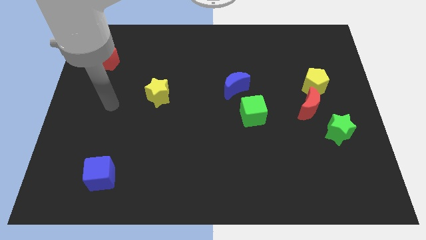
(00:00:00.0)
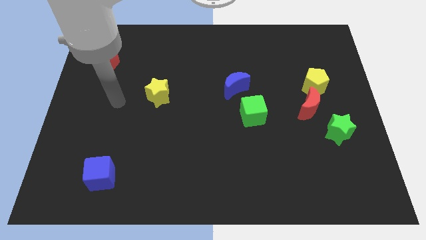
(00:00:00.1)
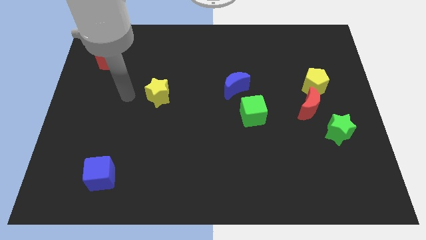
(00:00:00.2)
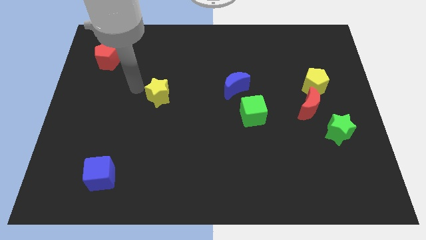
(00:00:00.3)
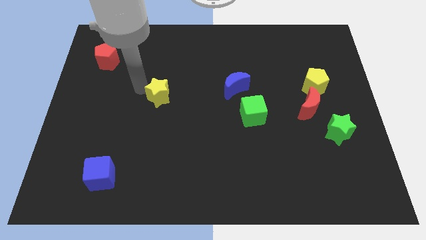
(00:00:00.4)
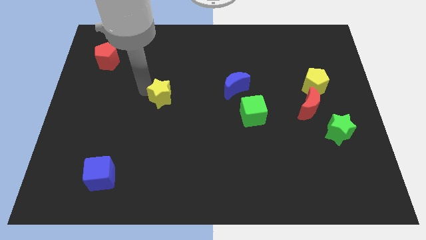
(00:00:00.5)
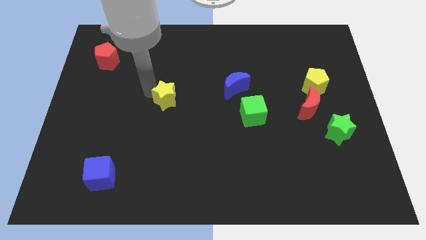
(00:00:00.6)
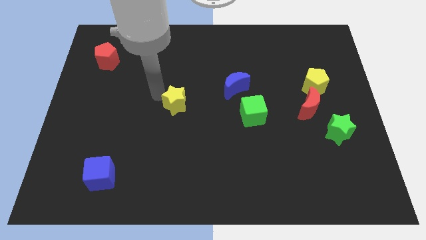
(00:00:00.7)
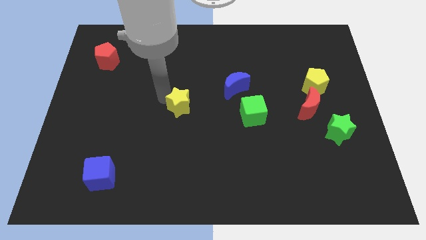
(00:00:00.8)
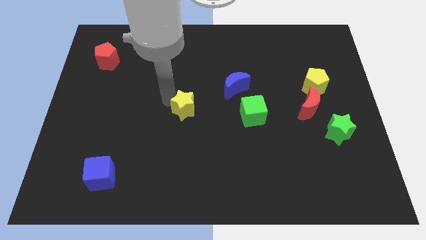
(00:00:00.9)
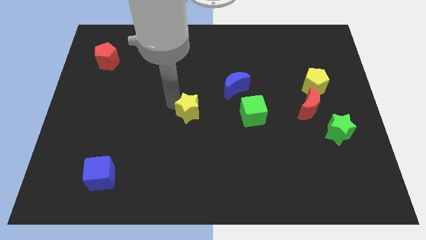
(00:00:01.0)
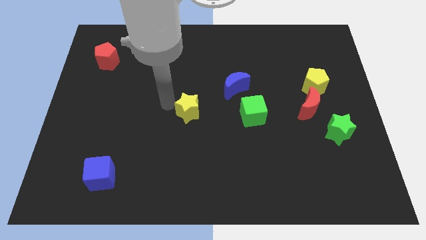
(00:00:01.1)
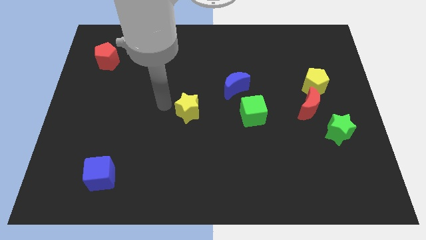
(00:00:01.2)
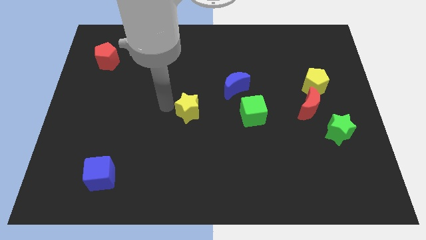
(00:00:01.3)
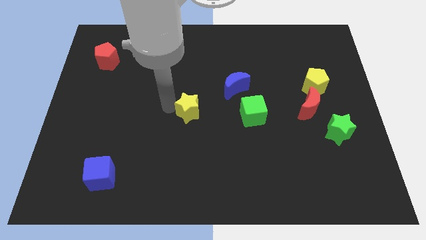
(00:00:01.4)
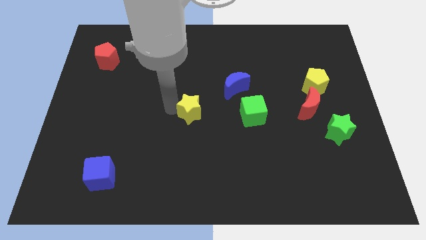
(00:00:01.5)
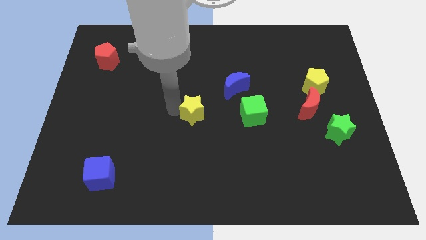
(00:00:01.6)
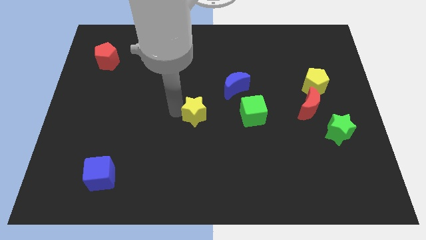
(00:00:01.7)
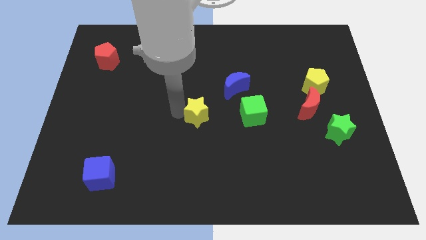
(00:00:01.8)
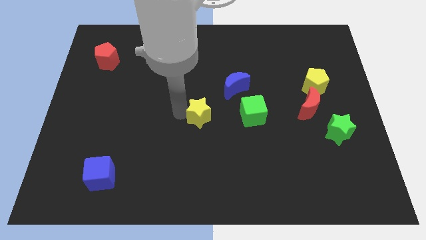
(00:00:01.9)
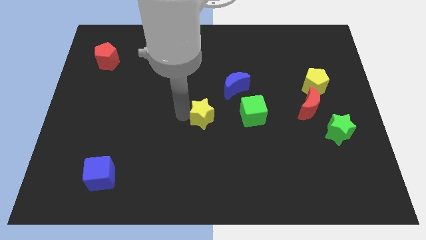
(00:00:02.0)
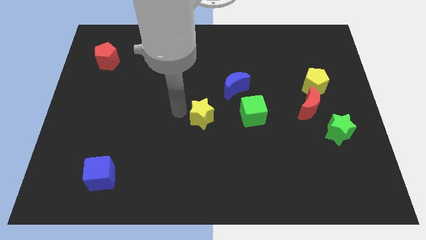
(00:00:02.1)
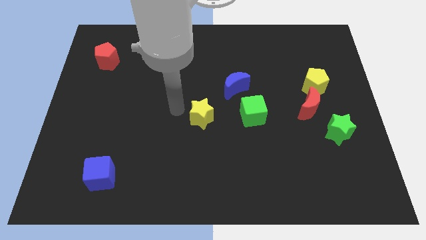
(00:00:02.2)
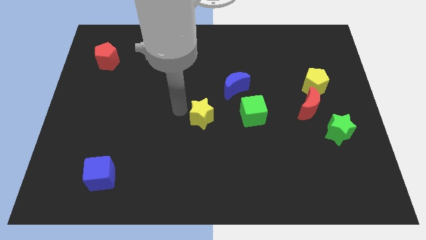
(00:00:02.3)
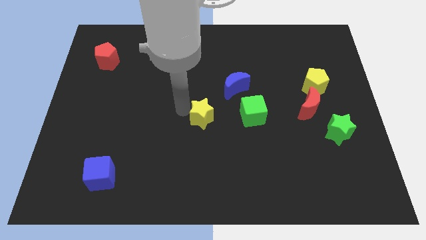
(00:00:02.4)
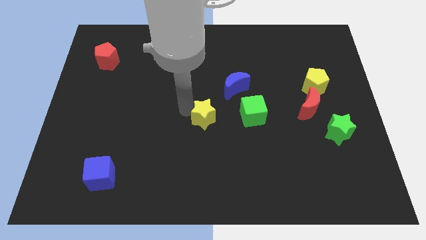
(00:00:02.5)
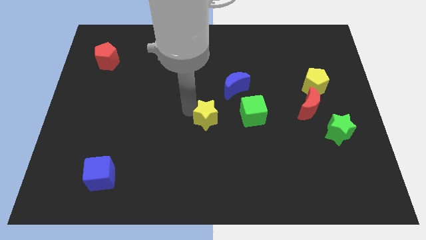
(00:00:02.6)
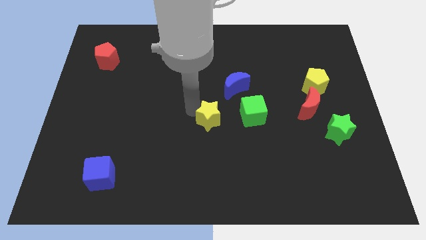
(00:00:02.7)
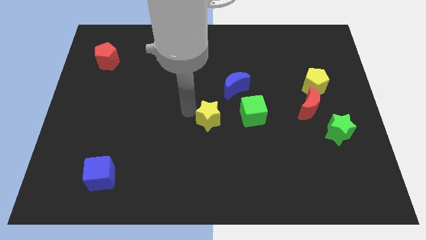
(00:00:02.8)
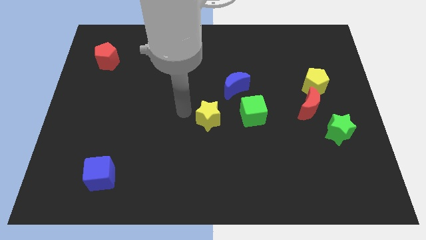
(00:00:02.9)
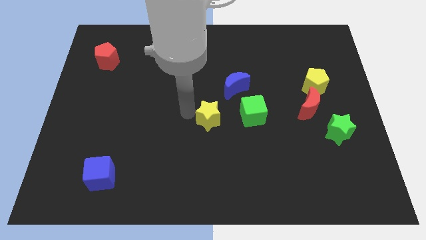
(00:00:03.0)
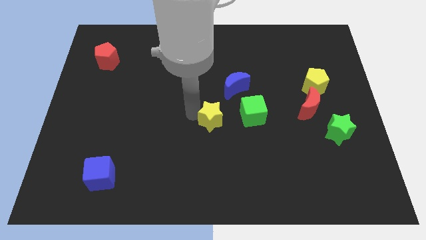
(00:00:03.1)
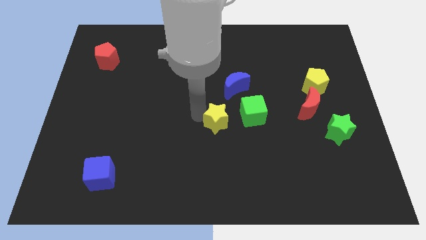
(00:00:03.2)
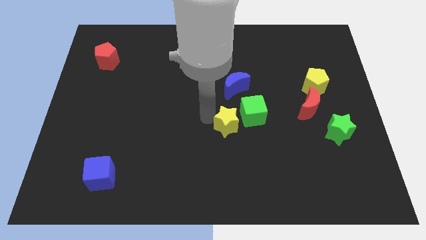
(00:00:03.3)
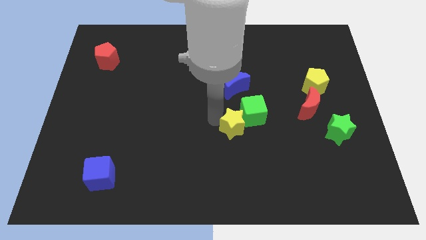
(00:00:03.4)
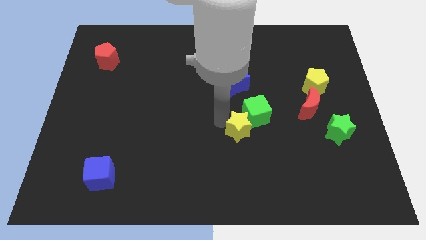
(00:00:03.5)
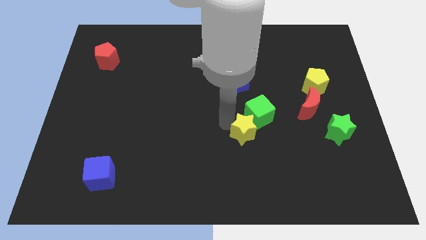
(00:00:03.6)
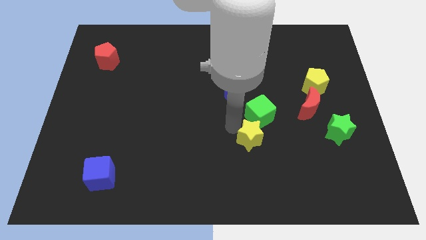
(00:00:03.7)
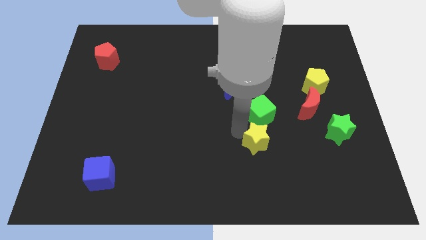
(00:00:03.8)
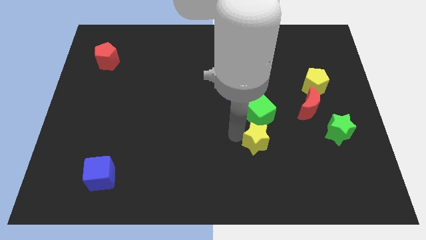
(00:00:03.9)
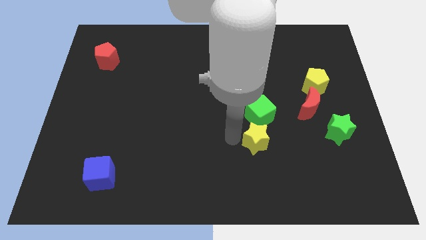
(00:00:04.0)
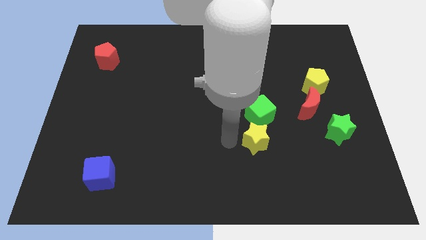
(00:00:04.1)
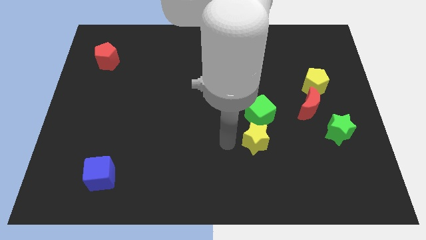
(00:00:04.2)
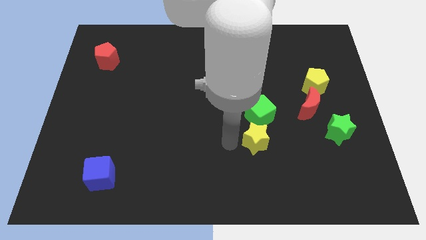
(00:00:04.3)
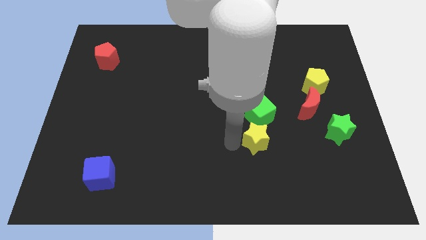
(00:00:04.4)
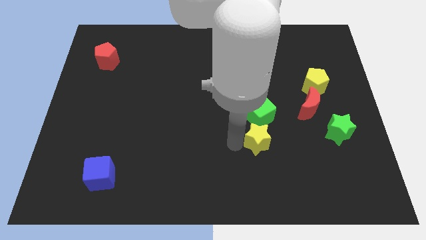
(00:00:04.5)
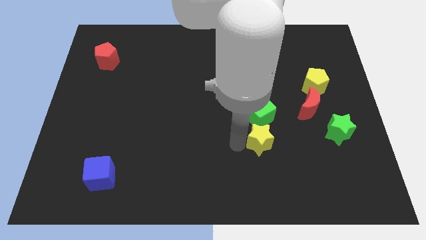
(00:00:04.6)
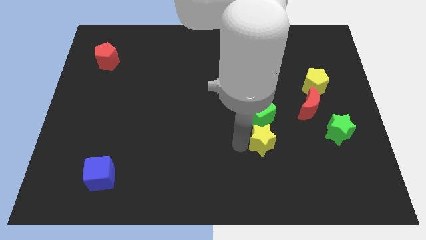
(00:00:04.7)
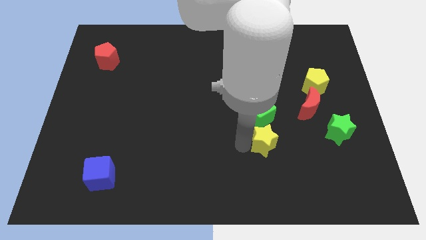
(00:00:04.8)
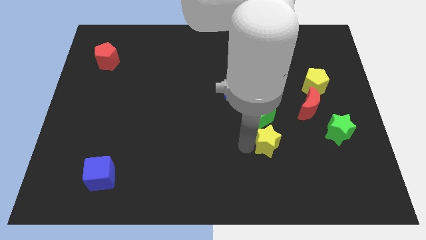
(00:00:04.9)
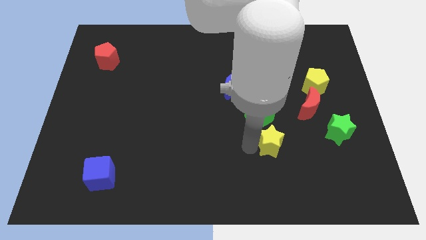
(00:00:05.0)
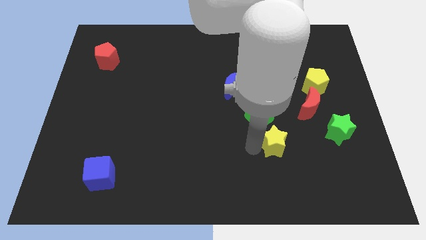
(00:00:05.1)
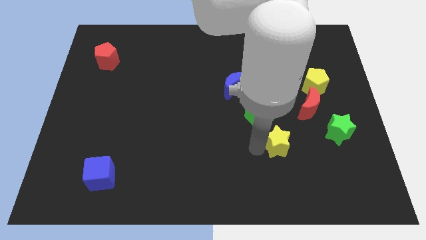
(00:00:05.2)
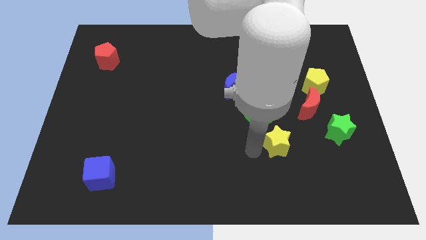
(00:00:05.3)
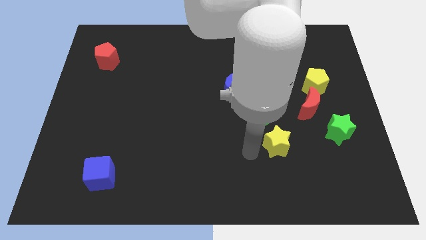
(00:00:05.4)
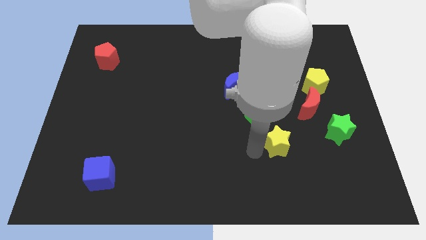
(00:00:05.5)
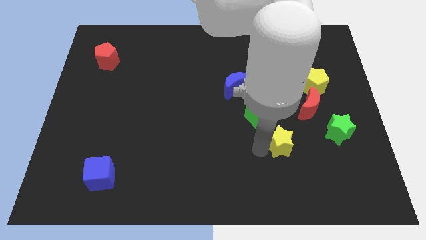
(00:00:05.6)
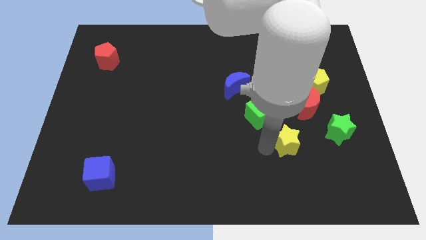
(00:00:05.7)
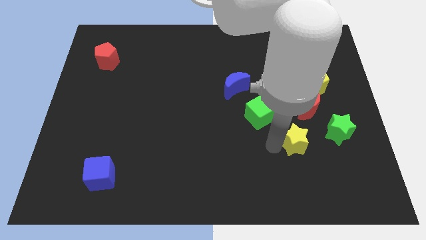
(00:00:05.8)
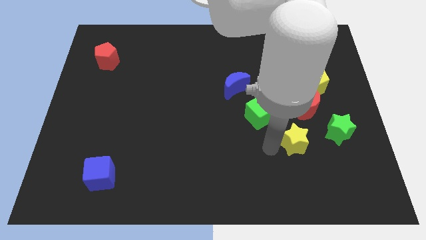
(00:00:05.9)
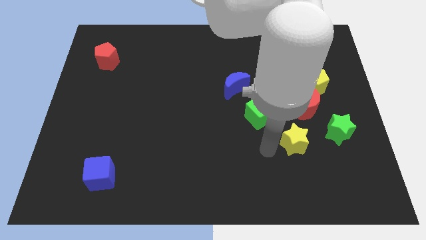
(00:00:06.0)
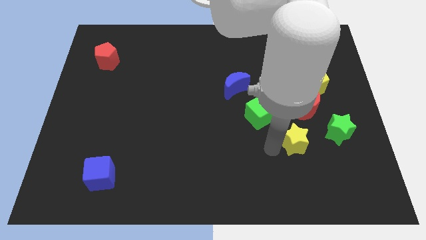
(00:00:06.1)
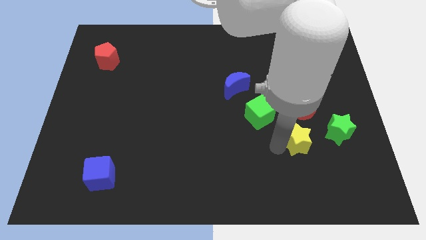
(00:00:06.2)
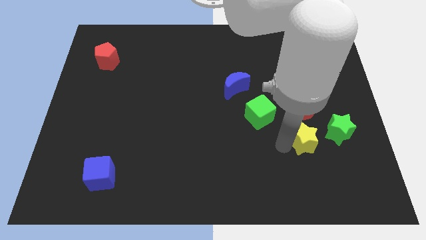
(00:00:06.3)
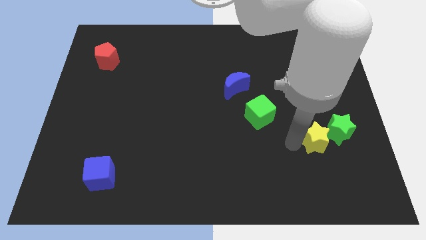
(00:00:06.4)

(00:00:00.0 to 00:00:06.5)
push the yellow star close to the green star
